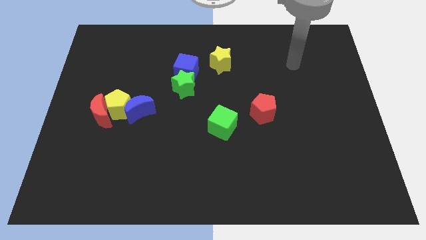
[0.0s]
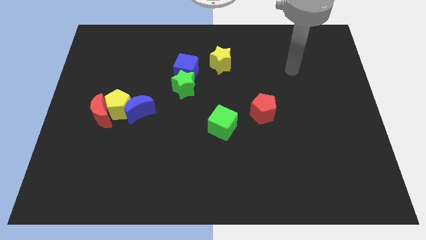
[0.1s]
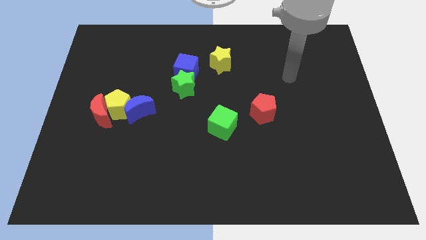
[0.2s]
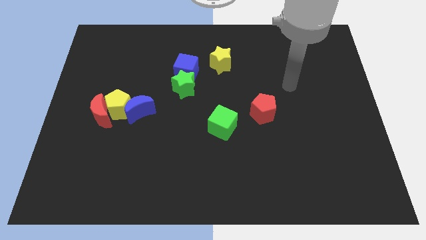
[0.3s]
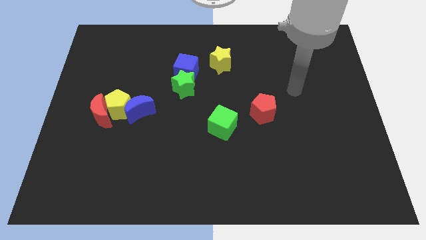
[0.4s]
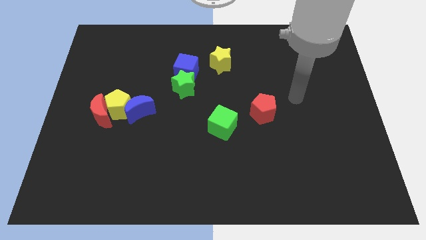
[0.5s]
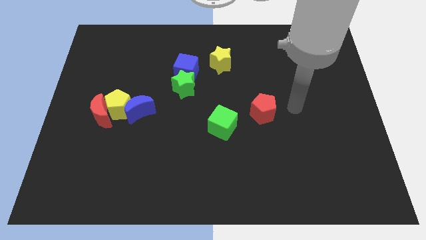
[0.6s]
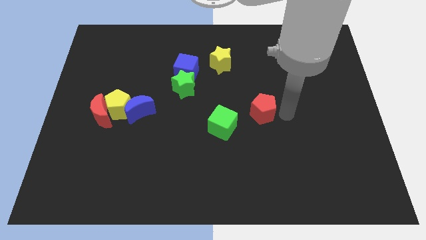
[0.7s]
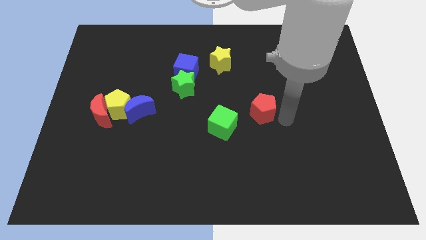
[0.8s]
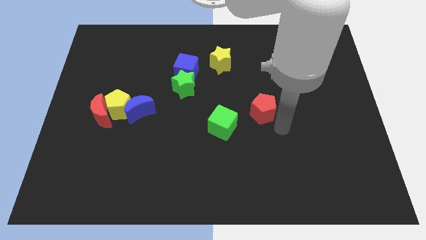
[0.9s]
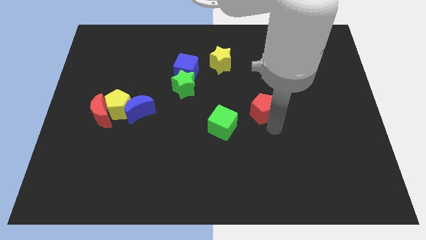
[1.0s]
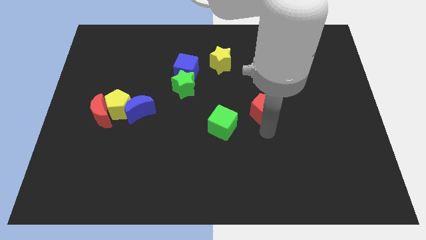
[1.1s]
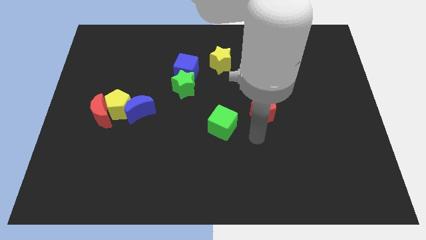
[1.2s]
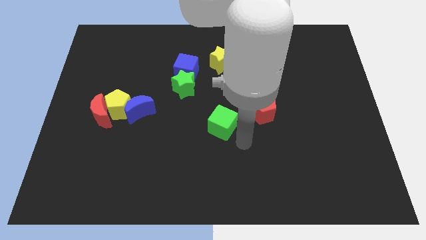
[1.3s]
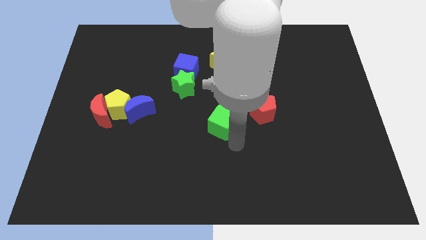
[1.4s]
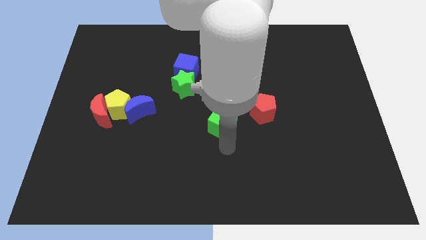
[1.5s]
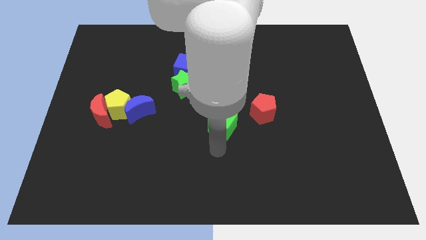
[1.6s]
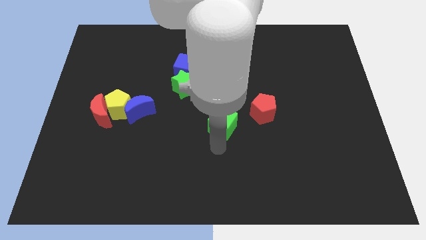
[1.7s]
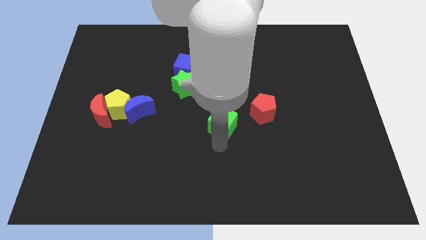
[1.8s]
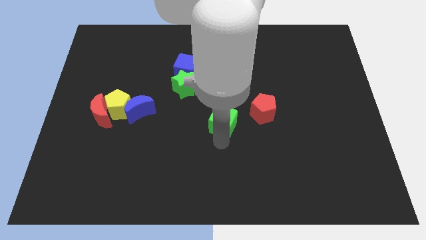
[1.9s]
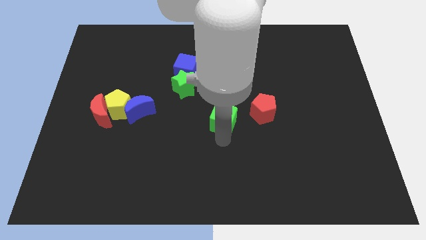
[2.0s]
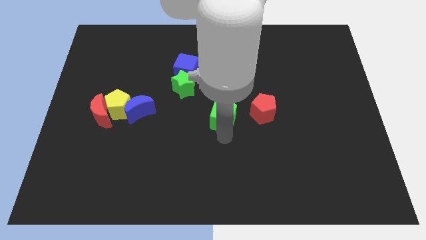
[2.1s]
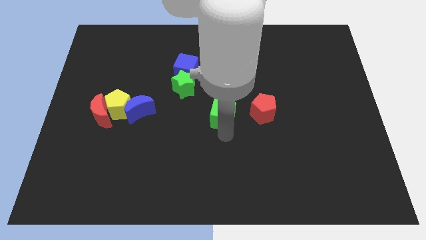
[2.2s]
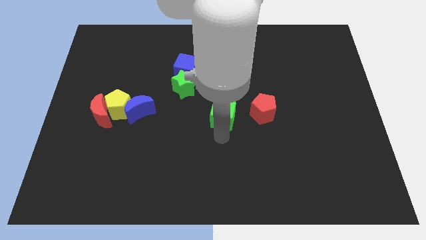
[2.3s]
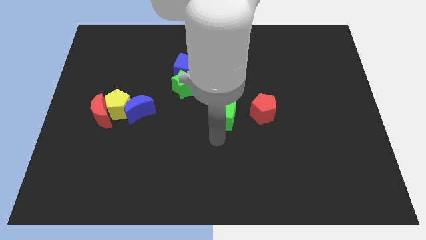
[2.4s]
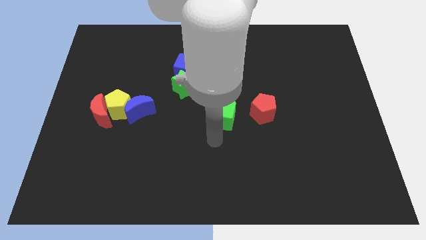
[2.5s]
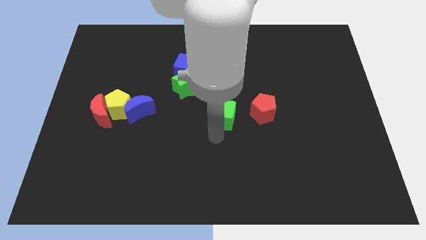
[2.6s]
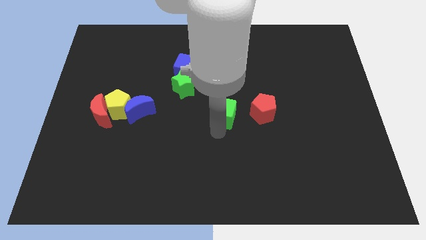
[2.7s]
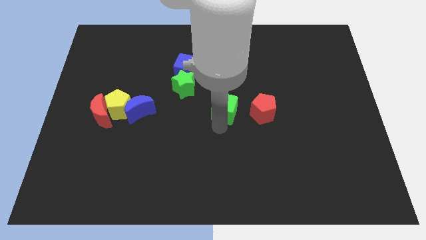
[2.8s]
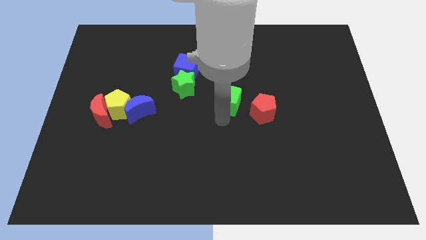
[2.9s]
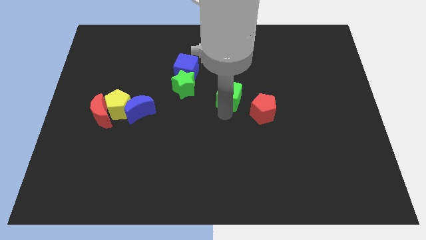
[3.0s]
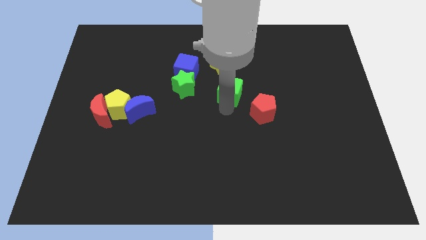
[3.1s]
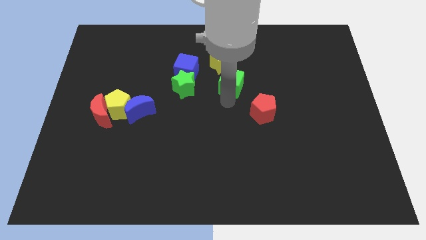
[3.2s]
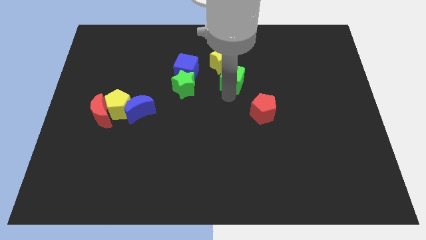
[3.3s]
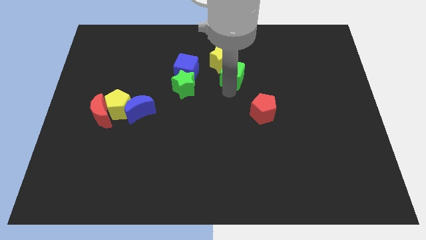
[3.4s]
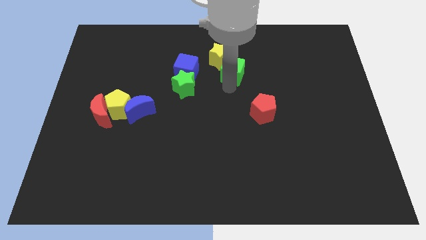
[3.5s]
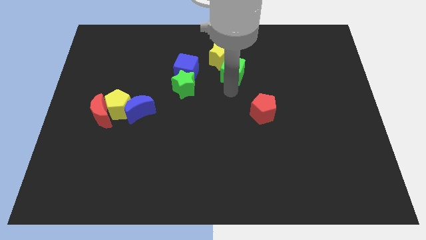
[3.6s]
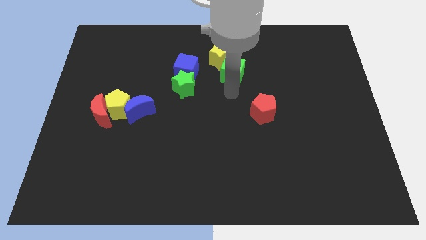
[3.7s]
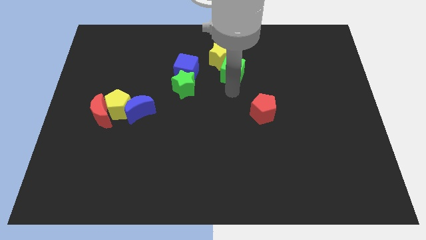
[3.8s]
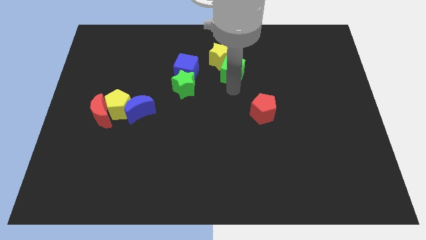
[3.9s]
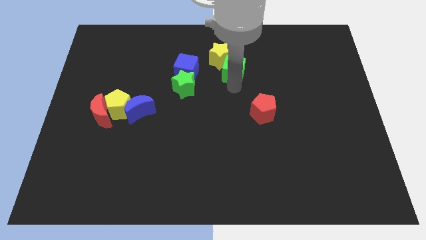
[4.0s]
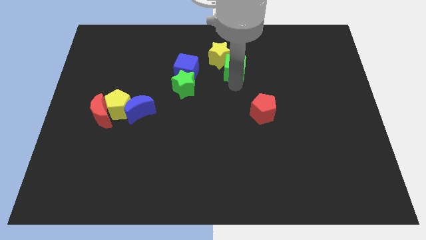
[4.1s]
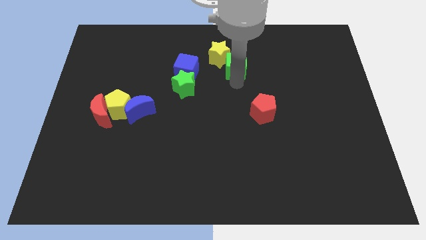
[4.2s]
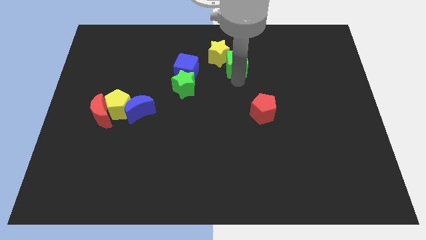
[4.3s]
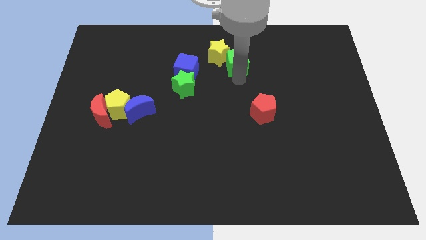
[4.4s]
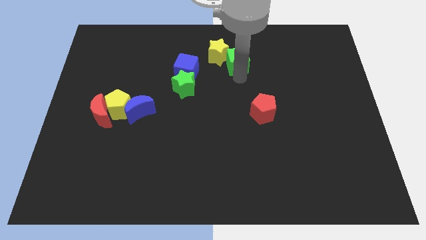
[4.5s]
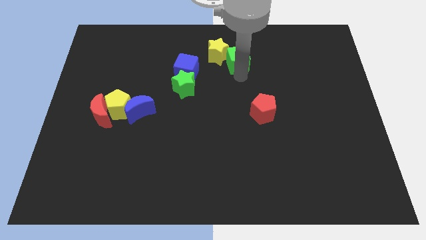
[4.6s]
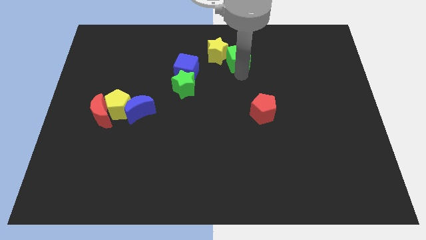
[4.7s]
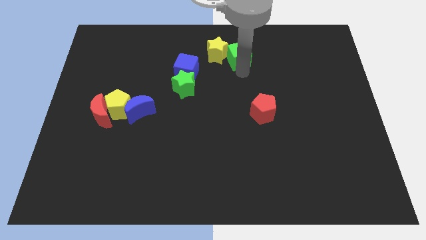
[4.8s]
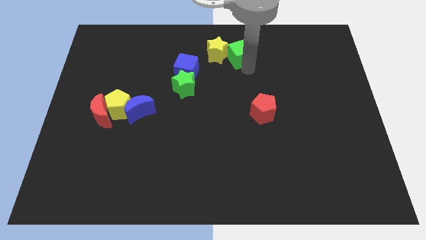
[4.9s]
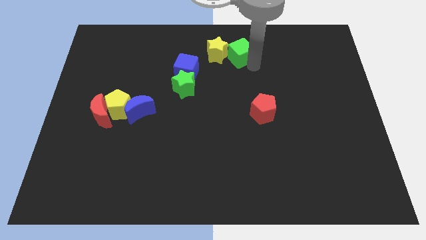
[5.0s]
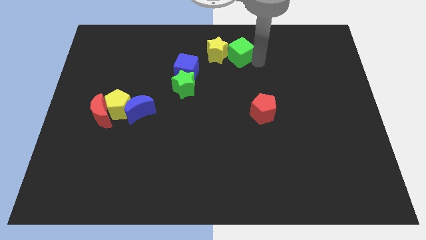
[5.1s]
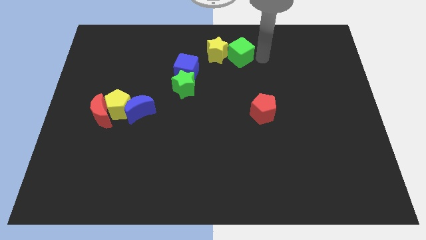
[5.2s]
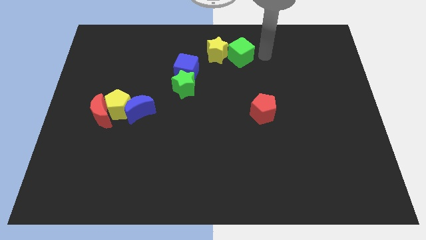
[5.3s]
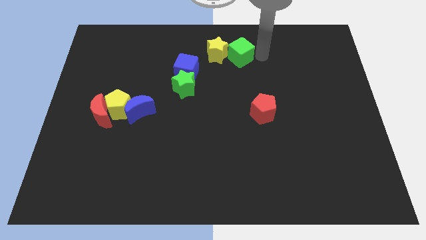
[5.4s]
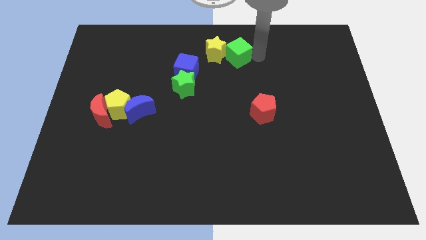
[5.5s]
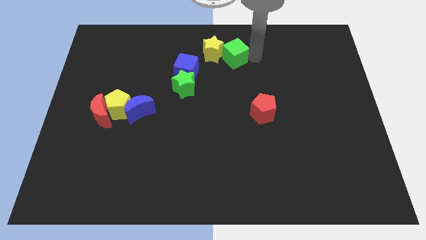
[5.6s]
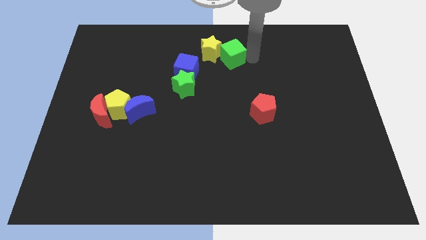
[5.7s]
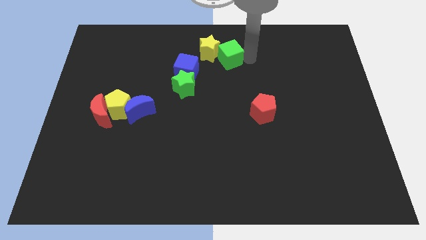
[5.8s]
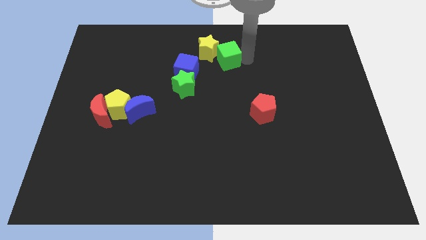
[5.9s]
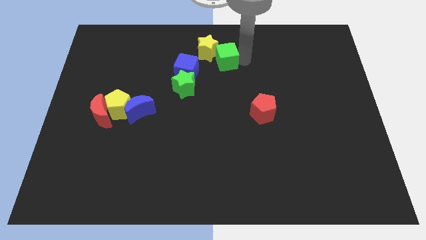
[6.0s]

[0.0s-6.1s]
put the green cube to the top right side of the blue cube

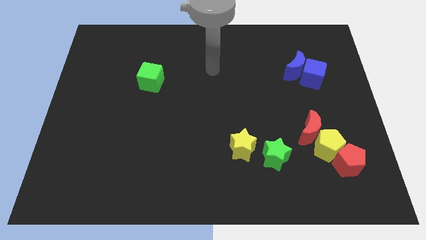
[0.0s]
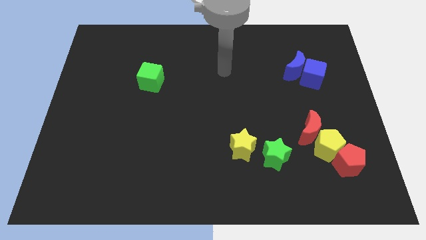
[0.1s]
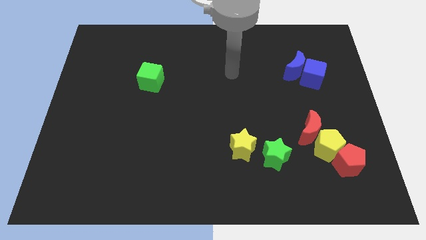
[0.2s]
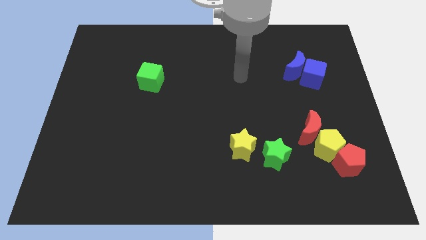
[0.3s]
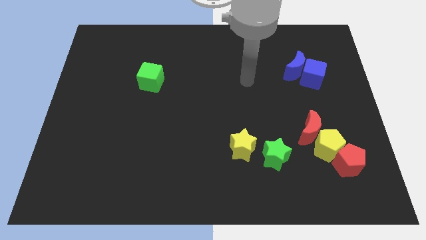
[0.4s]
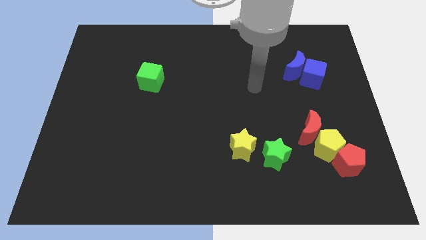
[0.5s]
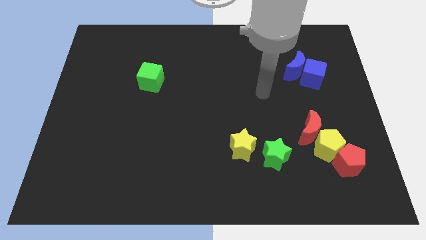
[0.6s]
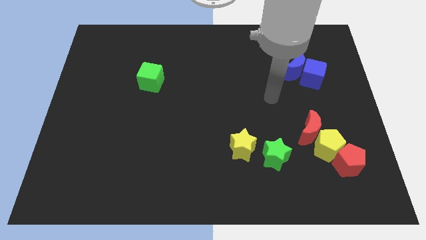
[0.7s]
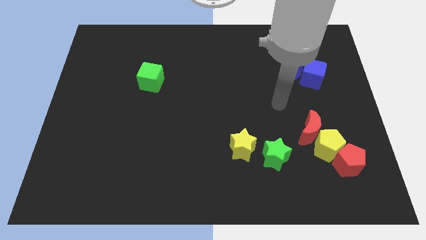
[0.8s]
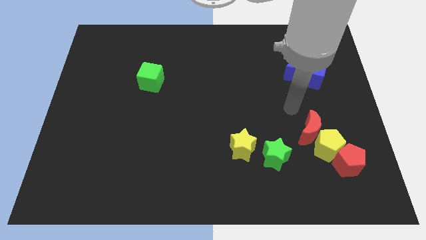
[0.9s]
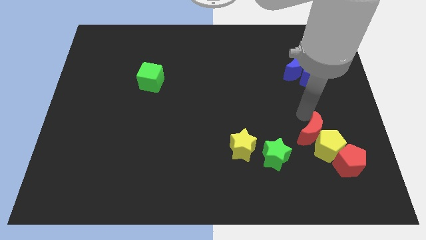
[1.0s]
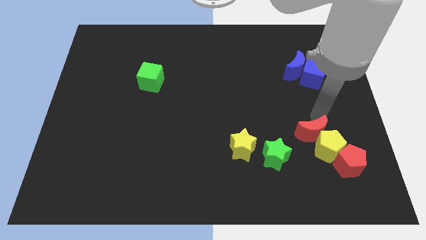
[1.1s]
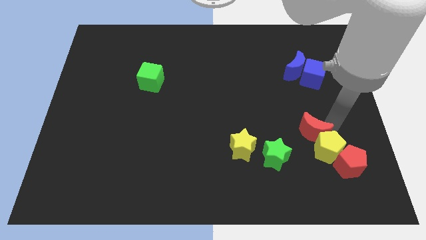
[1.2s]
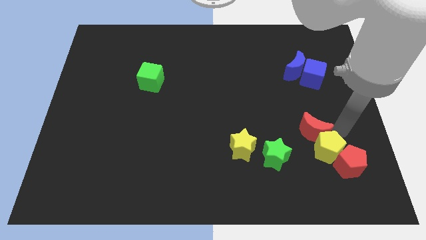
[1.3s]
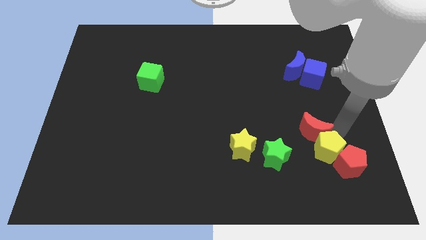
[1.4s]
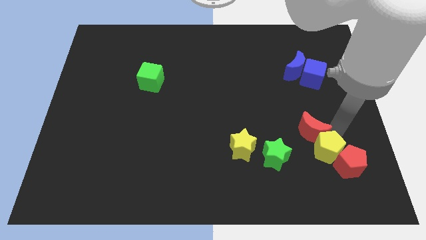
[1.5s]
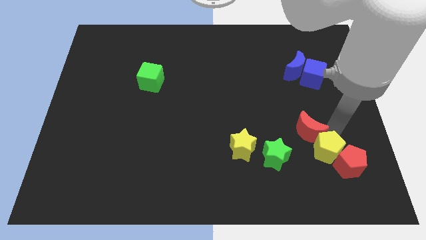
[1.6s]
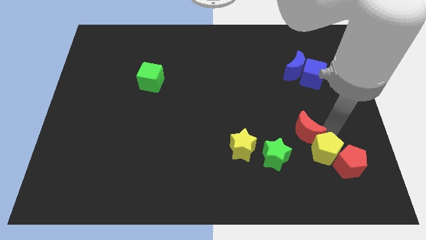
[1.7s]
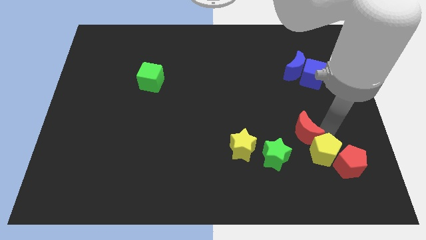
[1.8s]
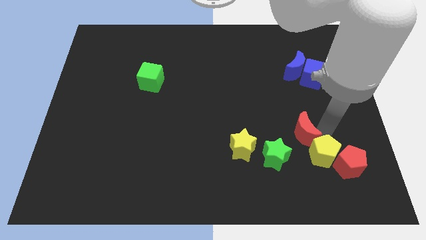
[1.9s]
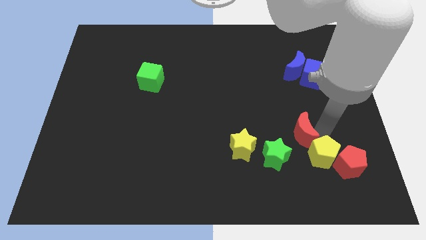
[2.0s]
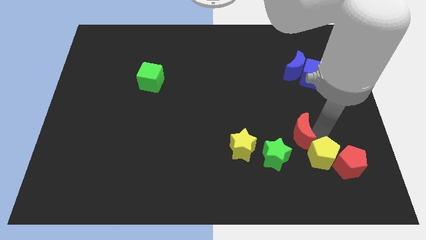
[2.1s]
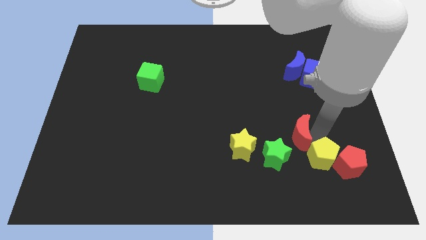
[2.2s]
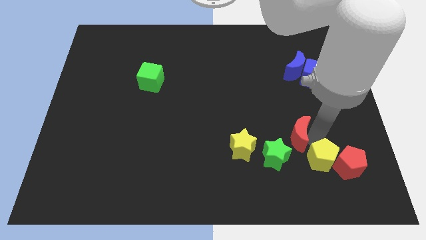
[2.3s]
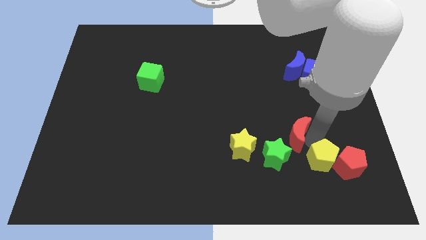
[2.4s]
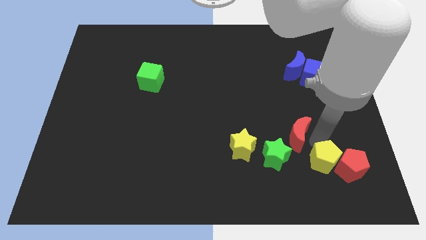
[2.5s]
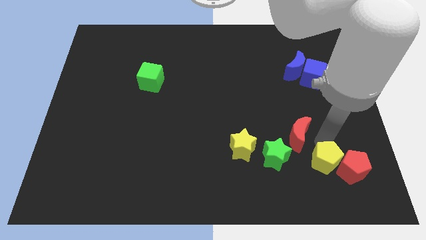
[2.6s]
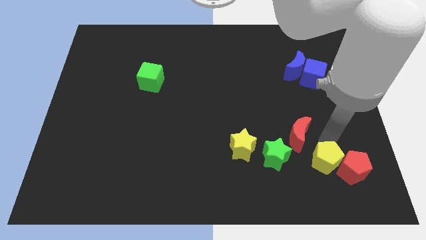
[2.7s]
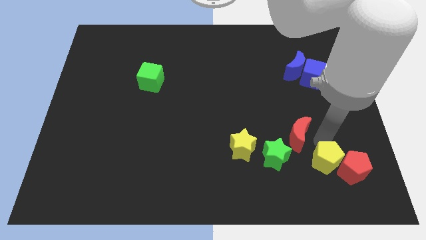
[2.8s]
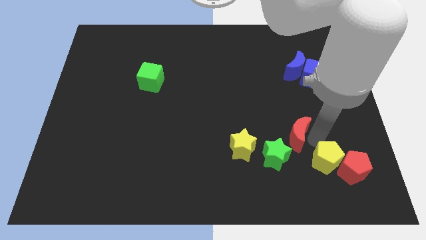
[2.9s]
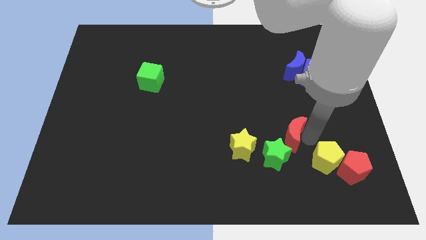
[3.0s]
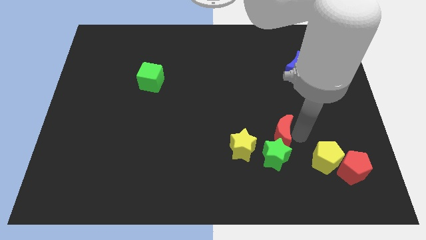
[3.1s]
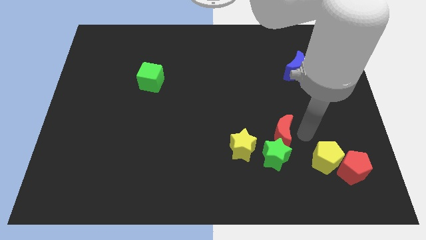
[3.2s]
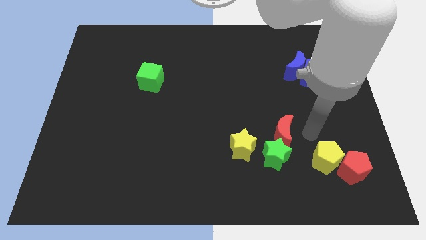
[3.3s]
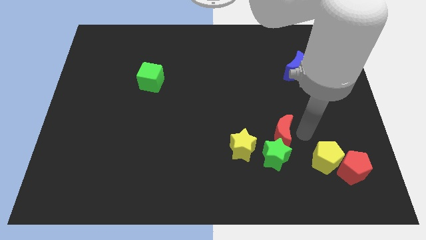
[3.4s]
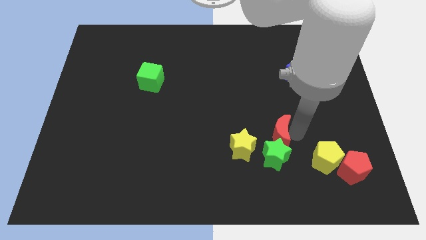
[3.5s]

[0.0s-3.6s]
move the red moon to the top left side of the green star
